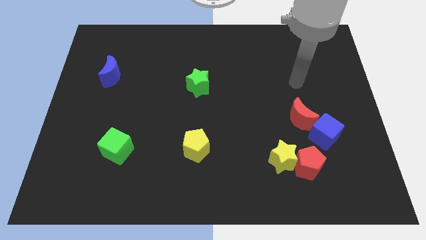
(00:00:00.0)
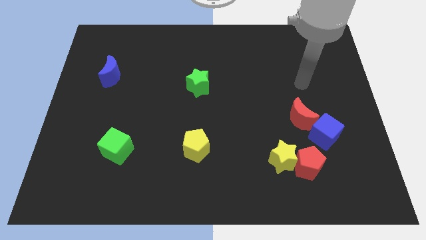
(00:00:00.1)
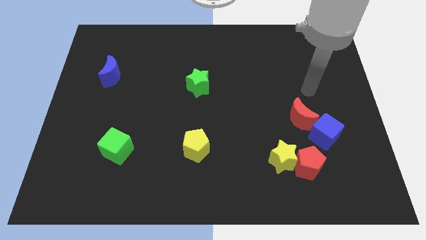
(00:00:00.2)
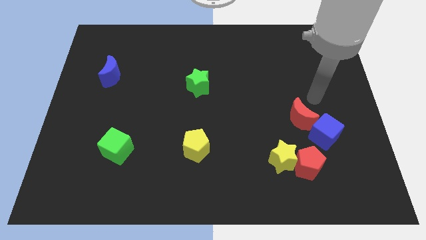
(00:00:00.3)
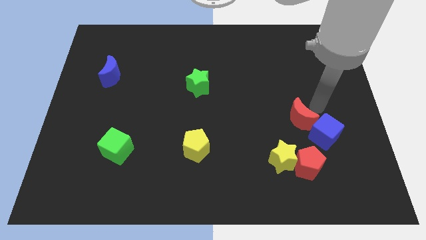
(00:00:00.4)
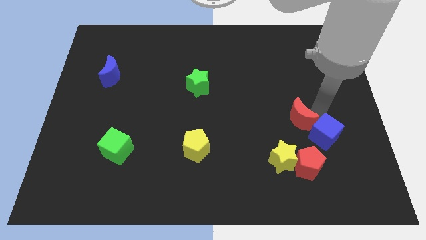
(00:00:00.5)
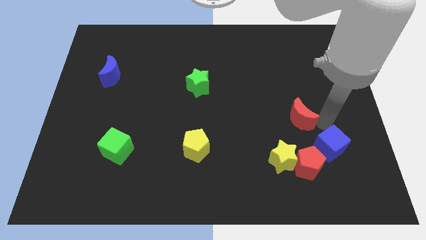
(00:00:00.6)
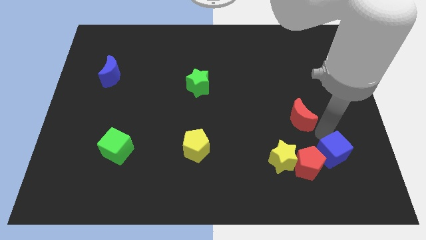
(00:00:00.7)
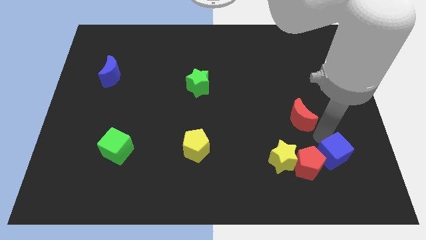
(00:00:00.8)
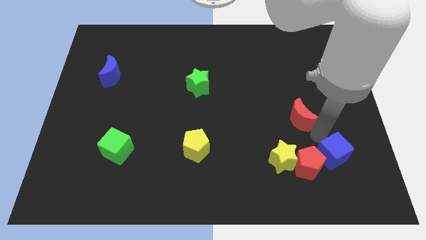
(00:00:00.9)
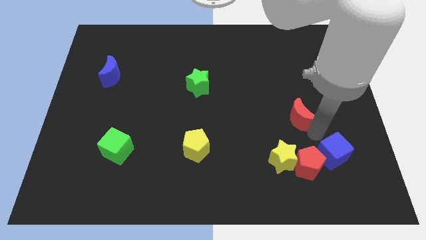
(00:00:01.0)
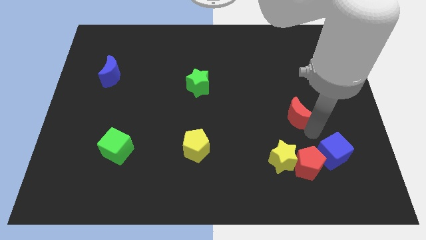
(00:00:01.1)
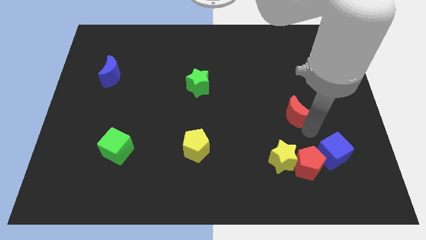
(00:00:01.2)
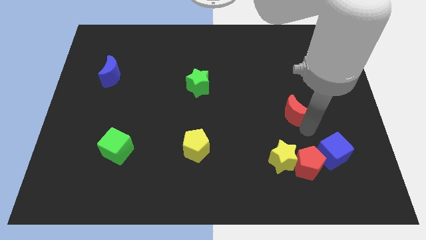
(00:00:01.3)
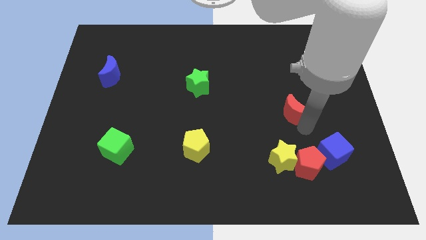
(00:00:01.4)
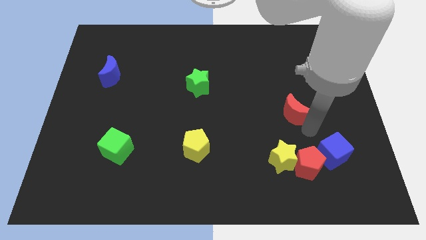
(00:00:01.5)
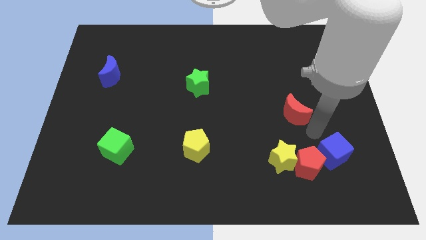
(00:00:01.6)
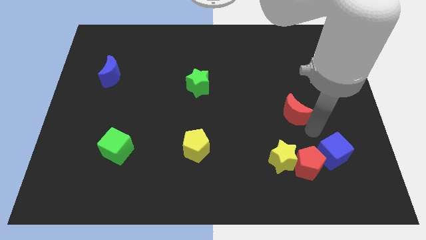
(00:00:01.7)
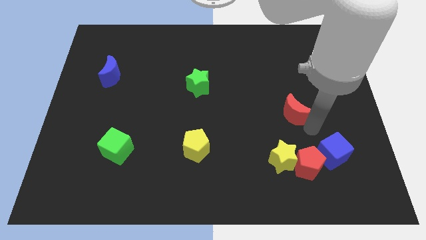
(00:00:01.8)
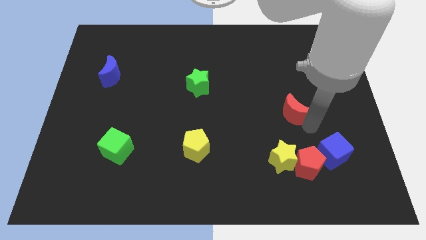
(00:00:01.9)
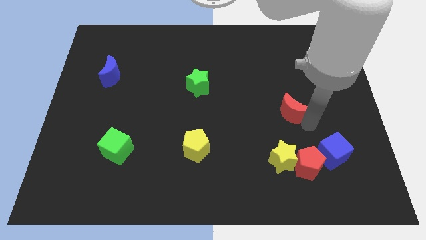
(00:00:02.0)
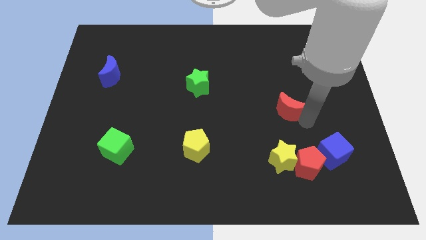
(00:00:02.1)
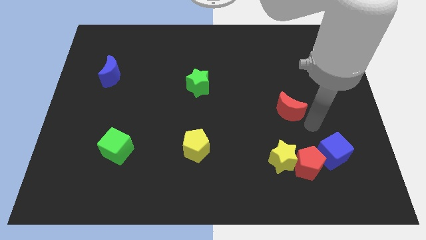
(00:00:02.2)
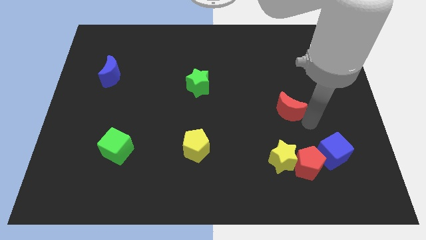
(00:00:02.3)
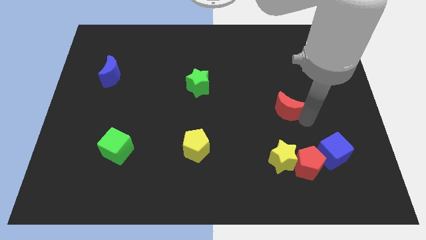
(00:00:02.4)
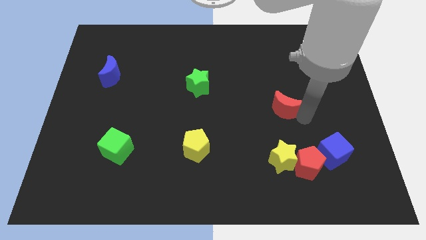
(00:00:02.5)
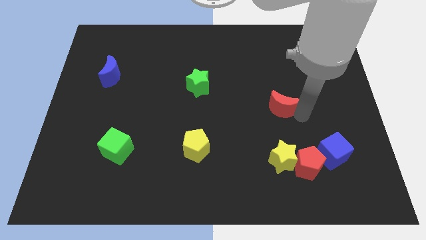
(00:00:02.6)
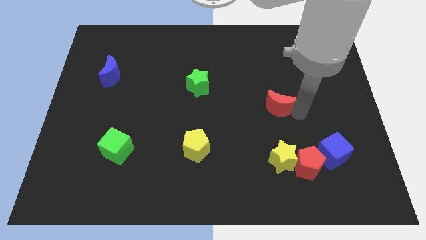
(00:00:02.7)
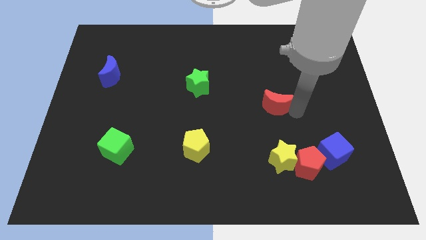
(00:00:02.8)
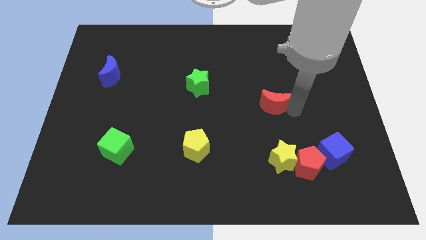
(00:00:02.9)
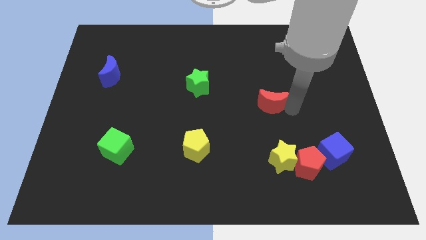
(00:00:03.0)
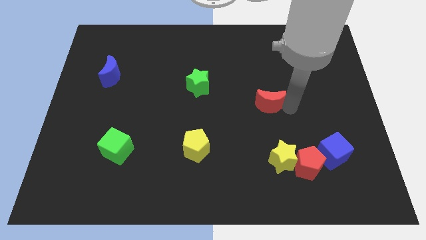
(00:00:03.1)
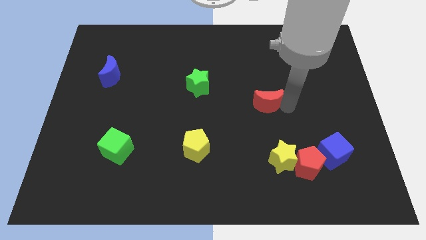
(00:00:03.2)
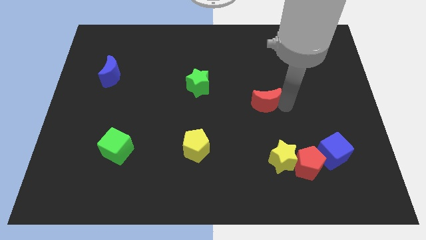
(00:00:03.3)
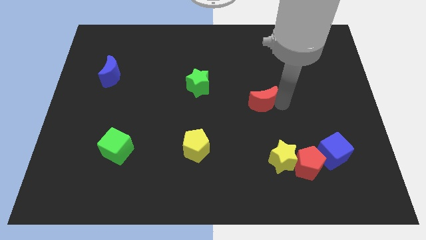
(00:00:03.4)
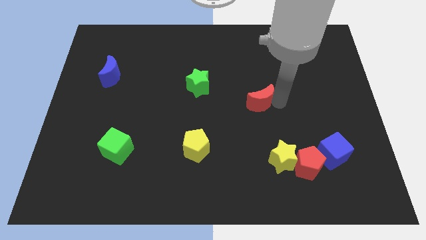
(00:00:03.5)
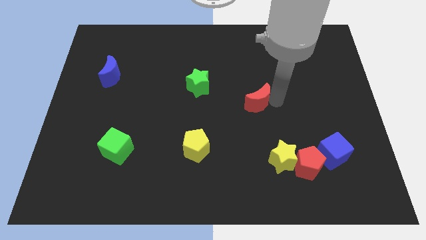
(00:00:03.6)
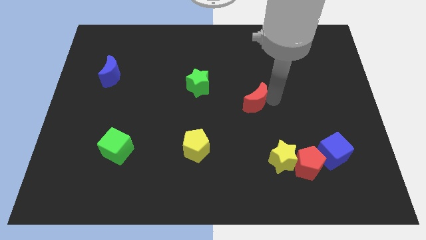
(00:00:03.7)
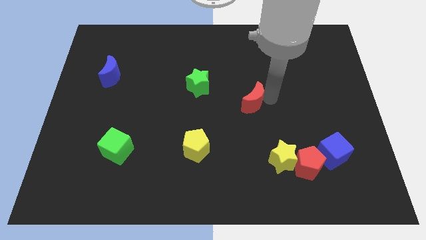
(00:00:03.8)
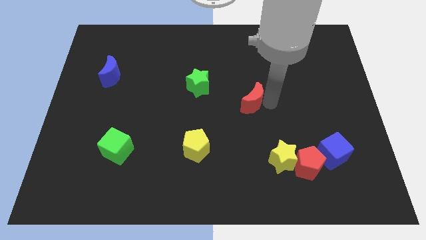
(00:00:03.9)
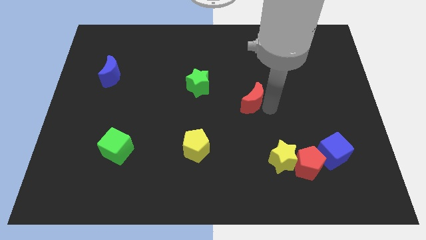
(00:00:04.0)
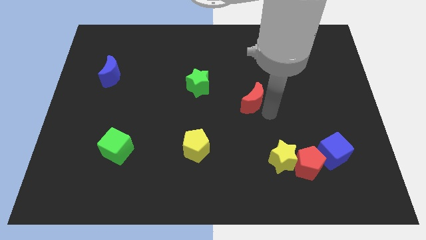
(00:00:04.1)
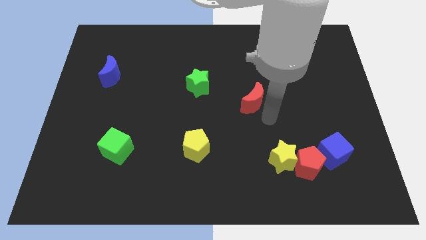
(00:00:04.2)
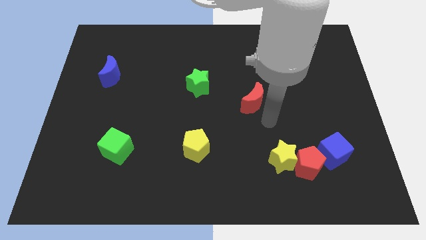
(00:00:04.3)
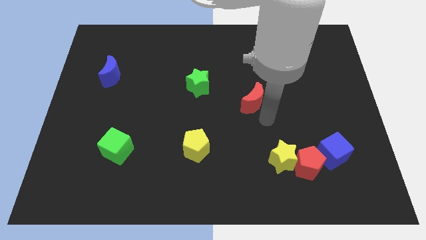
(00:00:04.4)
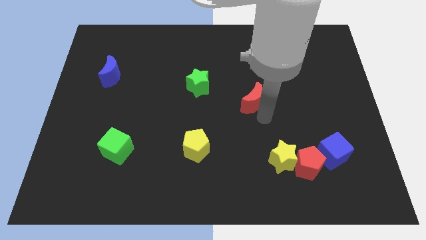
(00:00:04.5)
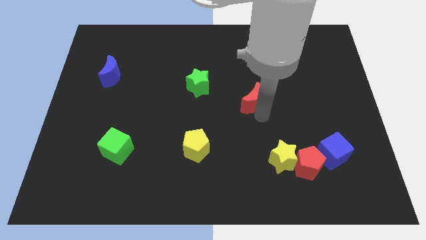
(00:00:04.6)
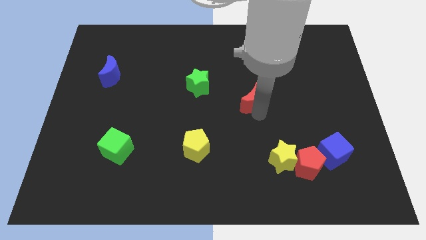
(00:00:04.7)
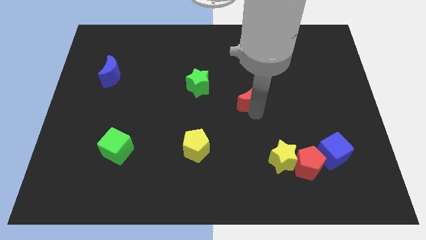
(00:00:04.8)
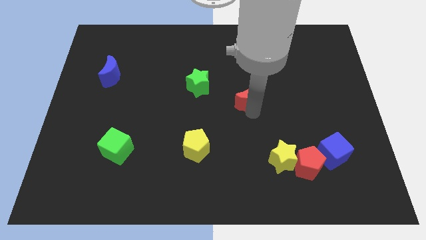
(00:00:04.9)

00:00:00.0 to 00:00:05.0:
move the red moon right of the green star

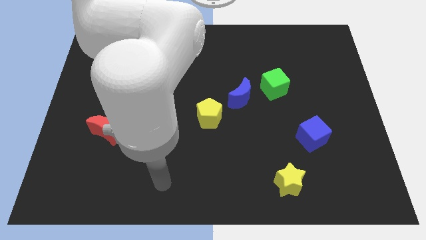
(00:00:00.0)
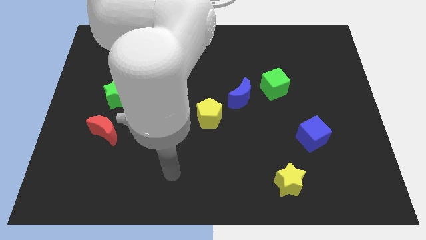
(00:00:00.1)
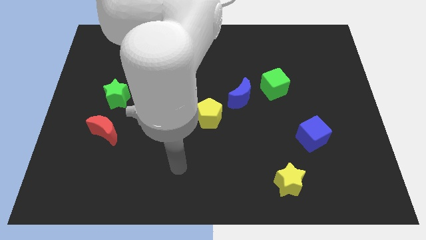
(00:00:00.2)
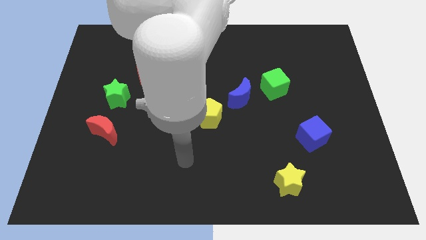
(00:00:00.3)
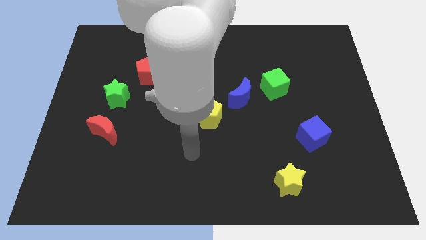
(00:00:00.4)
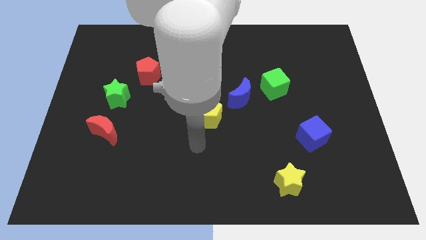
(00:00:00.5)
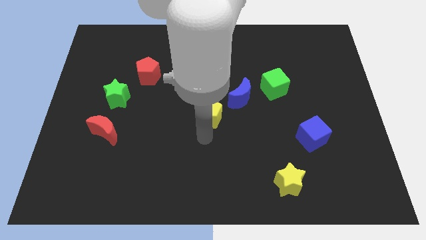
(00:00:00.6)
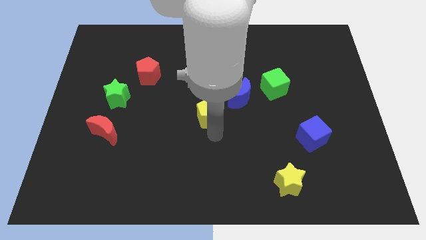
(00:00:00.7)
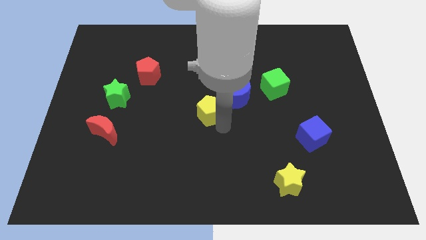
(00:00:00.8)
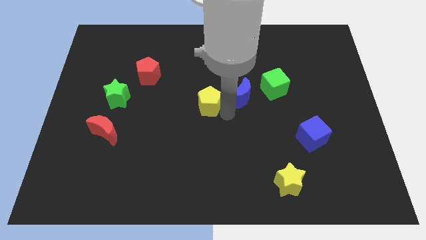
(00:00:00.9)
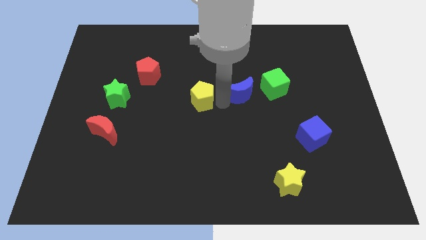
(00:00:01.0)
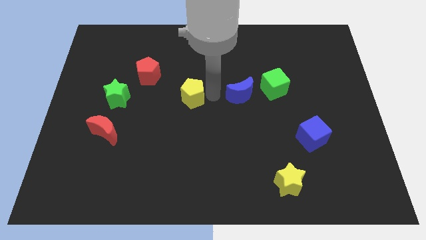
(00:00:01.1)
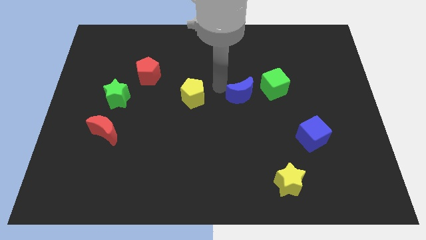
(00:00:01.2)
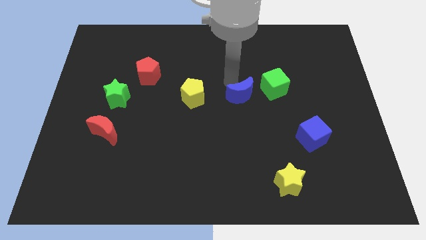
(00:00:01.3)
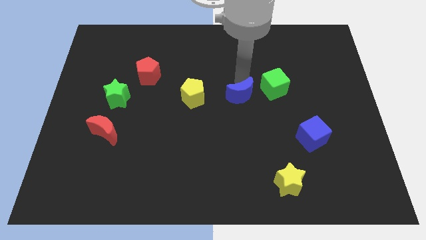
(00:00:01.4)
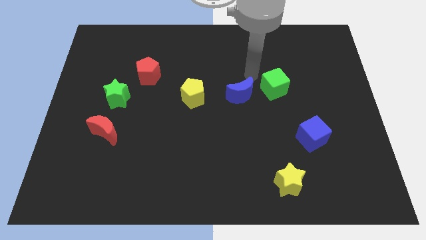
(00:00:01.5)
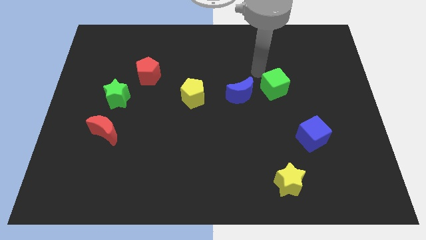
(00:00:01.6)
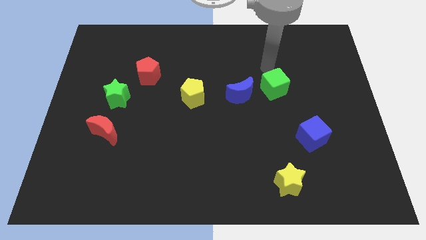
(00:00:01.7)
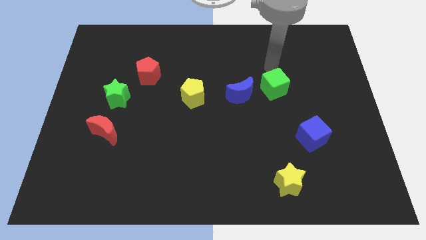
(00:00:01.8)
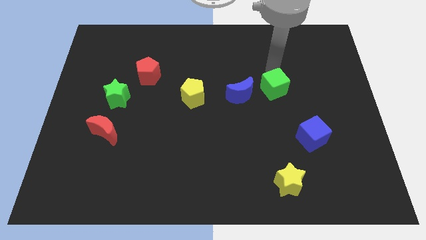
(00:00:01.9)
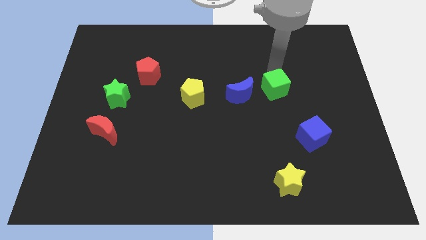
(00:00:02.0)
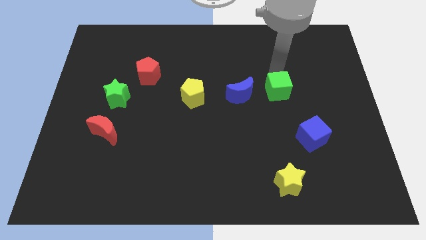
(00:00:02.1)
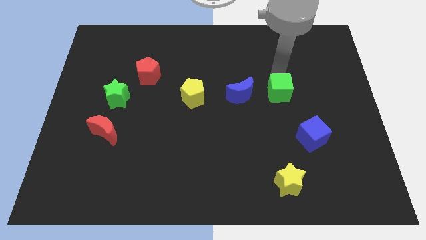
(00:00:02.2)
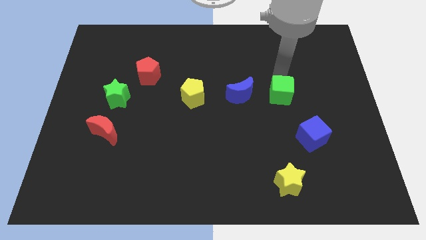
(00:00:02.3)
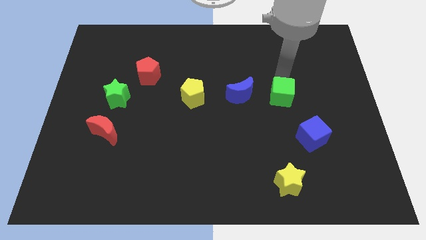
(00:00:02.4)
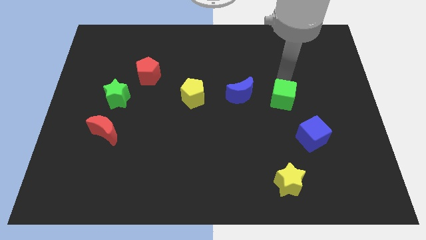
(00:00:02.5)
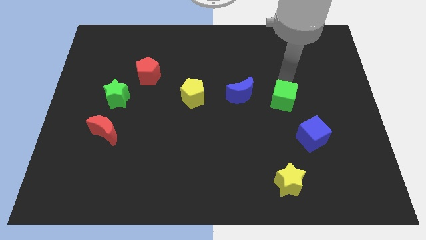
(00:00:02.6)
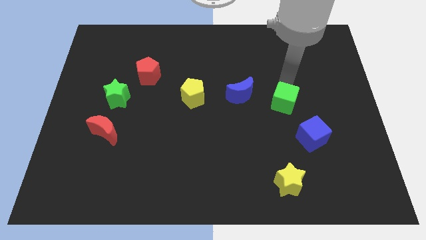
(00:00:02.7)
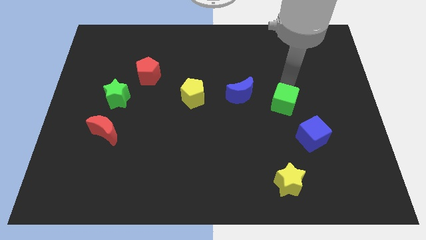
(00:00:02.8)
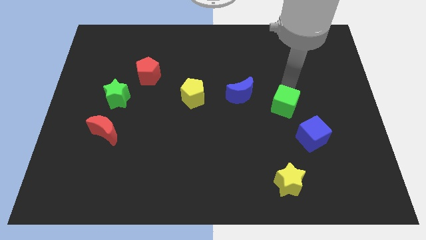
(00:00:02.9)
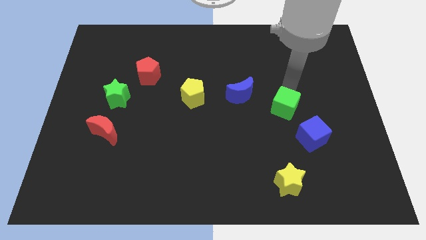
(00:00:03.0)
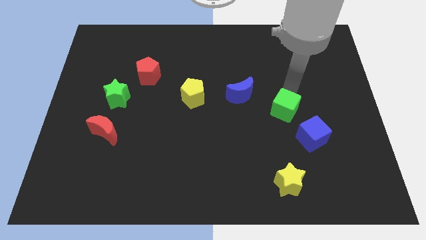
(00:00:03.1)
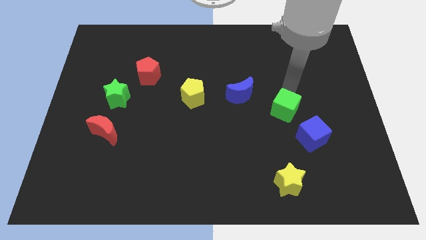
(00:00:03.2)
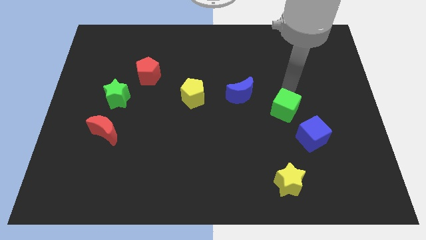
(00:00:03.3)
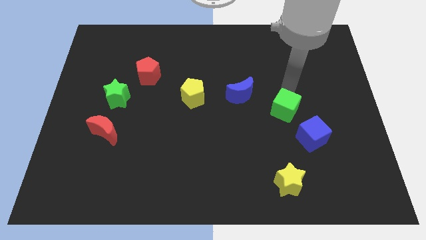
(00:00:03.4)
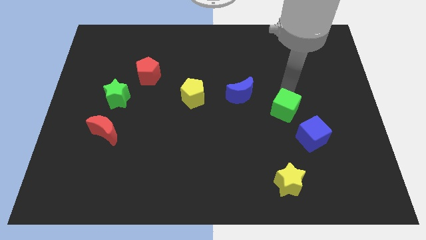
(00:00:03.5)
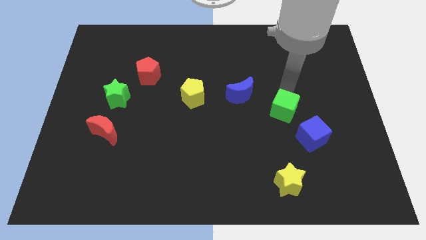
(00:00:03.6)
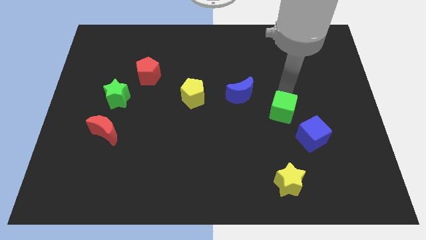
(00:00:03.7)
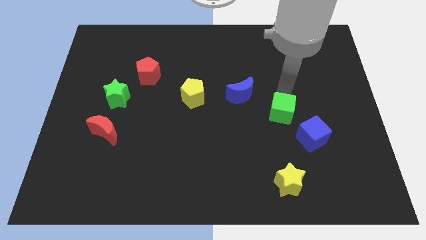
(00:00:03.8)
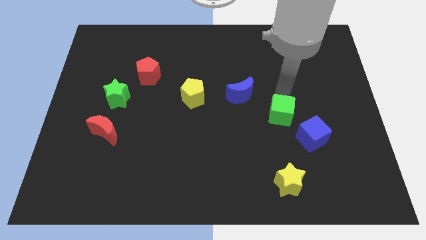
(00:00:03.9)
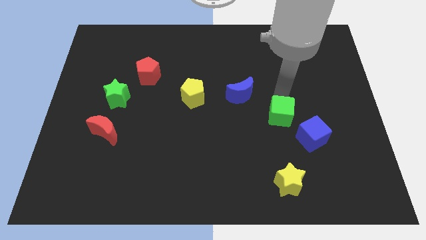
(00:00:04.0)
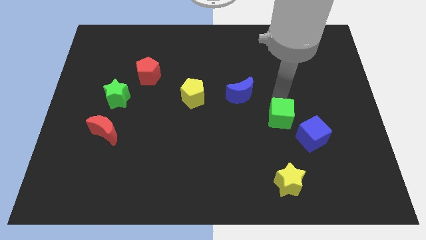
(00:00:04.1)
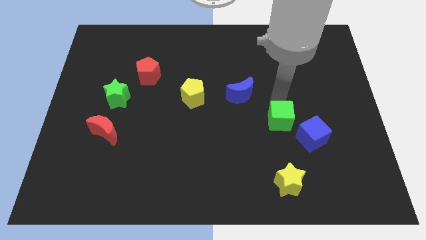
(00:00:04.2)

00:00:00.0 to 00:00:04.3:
push the green cube above the yellow star
